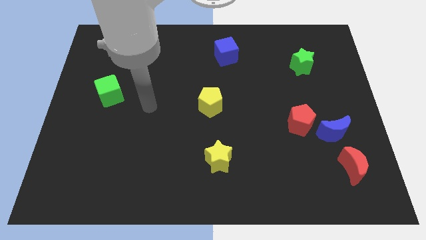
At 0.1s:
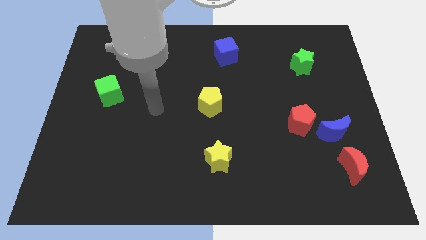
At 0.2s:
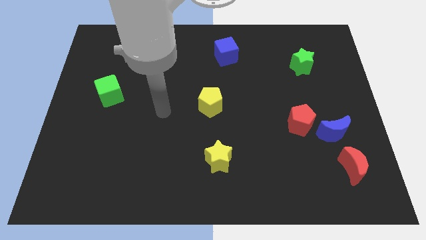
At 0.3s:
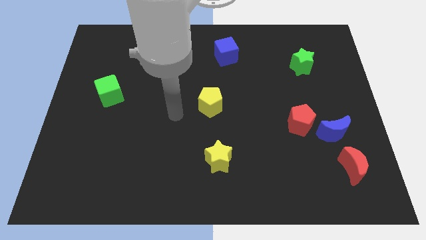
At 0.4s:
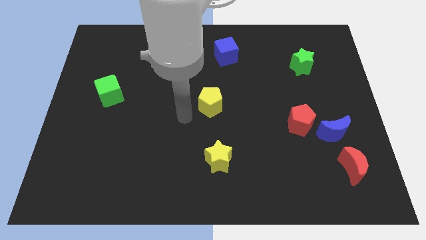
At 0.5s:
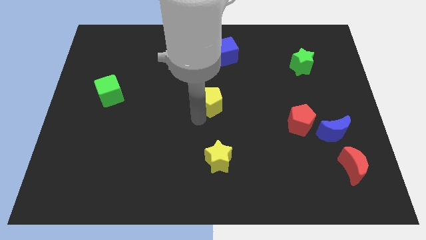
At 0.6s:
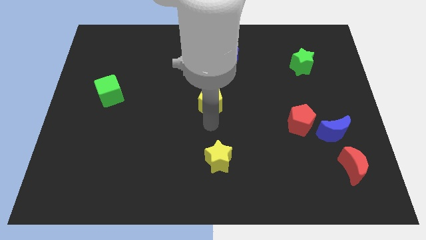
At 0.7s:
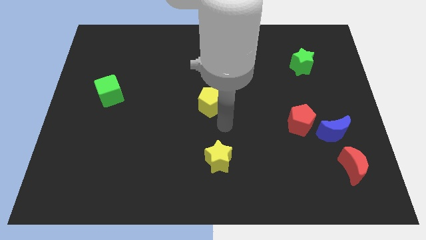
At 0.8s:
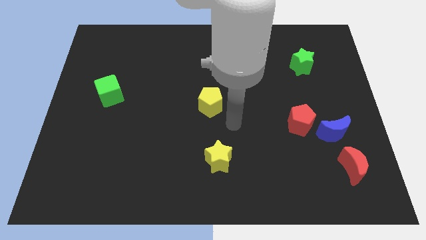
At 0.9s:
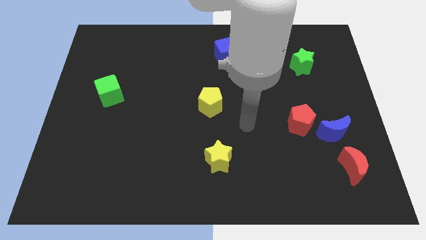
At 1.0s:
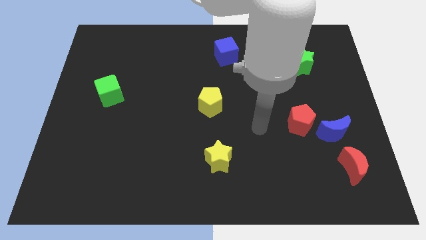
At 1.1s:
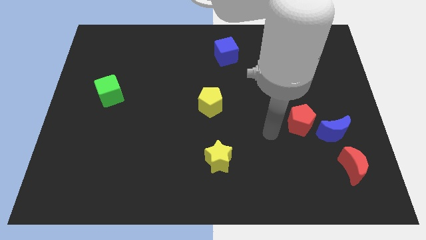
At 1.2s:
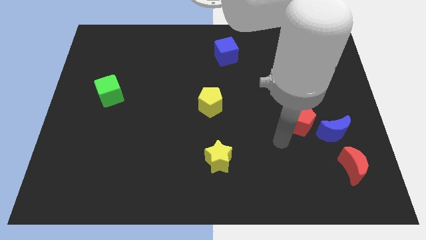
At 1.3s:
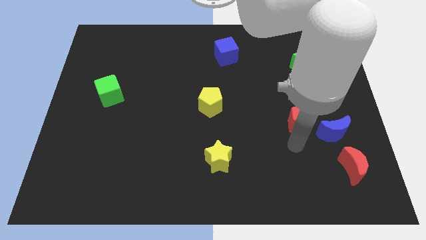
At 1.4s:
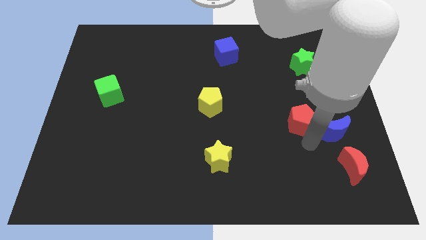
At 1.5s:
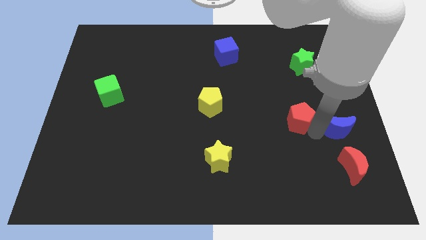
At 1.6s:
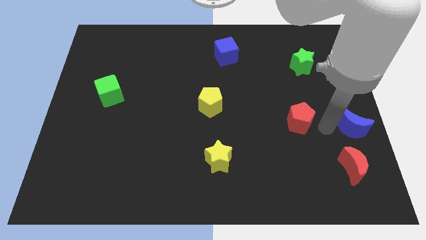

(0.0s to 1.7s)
separate the red pentagon from the blue moon

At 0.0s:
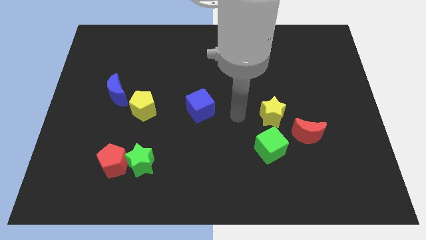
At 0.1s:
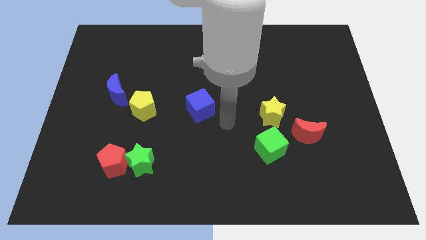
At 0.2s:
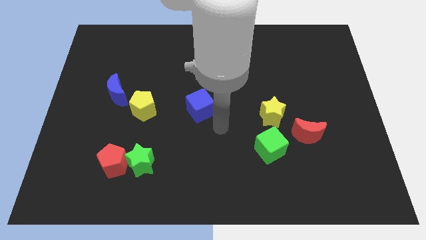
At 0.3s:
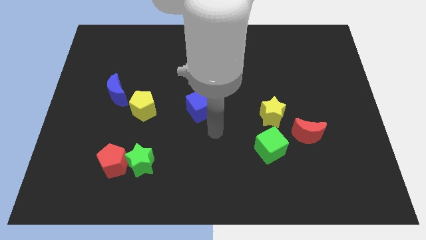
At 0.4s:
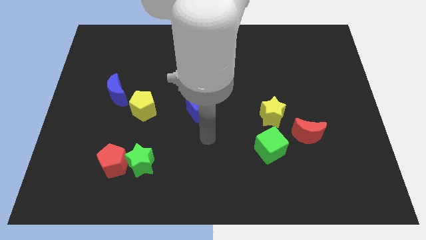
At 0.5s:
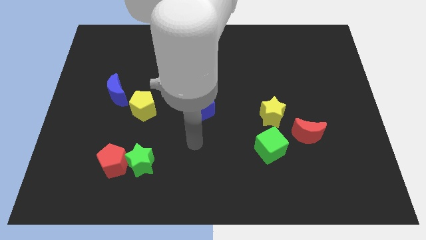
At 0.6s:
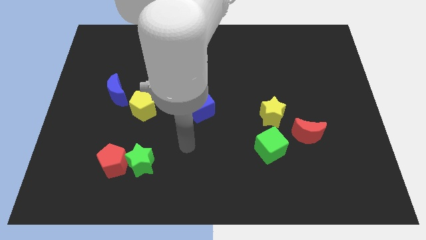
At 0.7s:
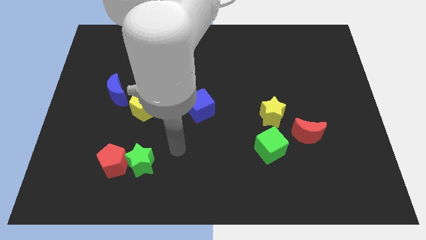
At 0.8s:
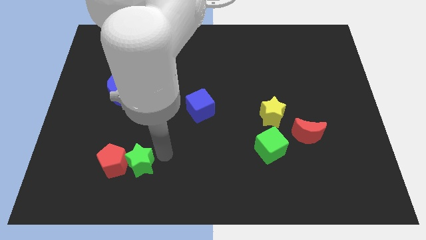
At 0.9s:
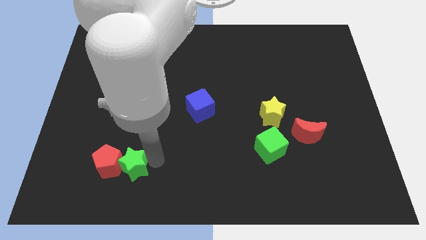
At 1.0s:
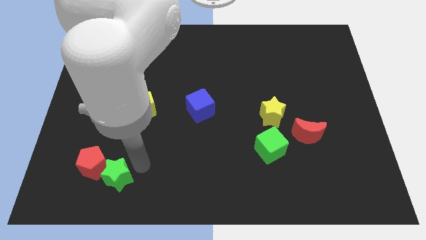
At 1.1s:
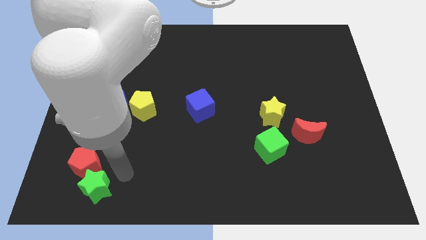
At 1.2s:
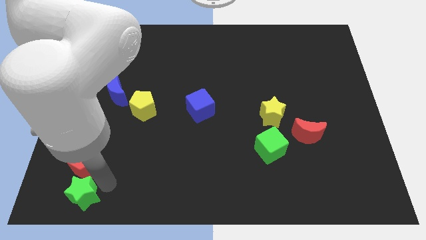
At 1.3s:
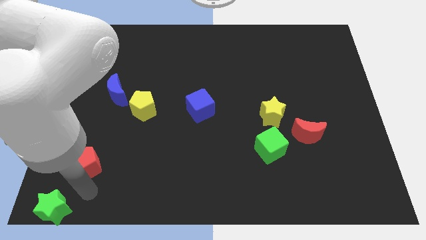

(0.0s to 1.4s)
separate the red pentagon from the green star

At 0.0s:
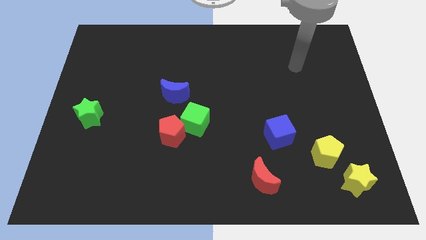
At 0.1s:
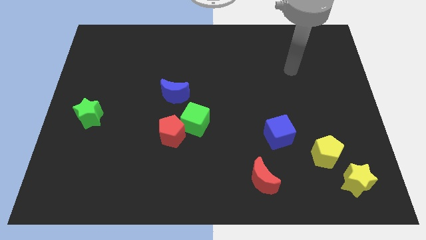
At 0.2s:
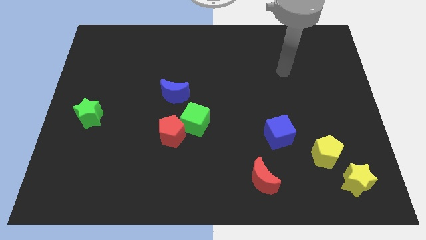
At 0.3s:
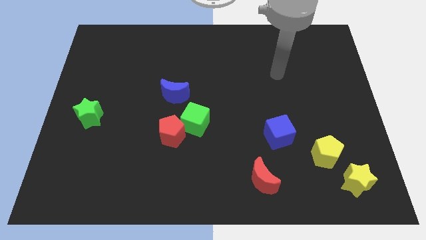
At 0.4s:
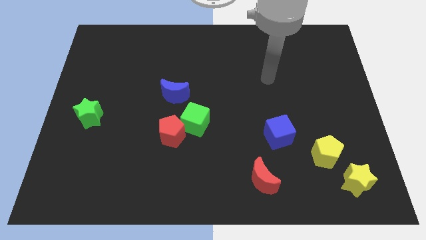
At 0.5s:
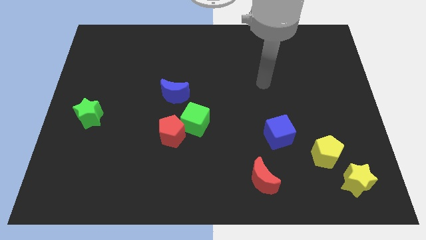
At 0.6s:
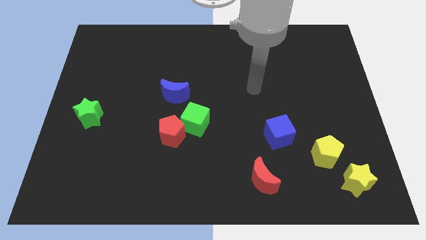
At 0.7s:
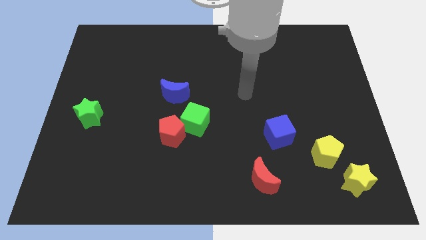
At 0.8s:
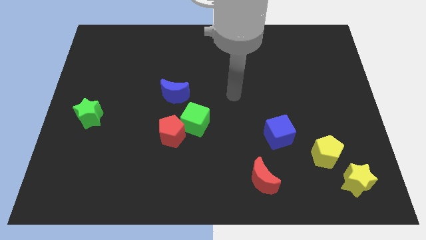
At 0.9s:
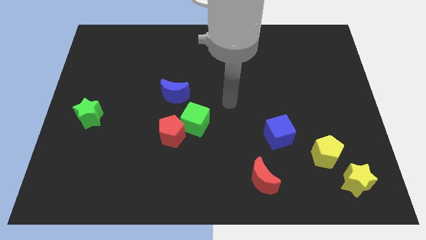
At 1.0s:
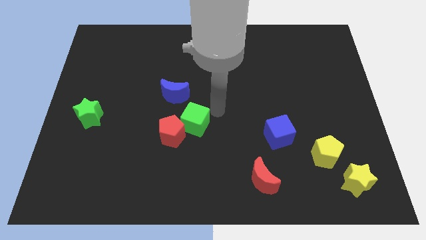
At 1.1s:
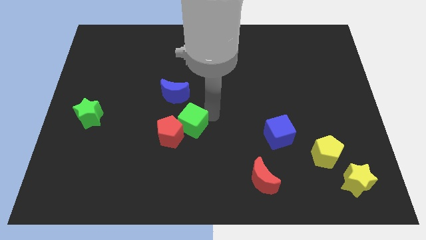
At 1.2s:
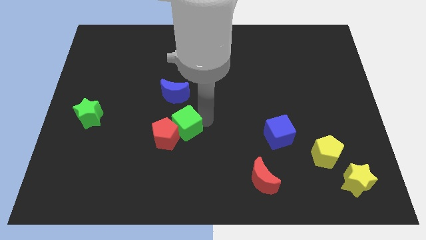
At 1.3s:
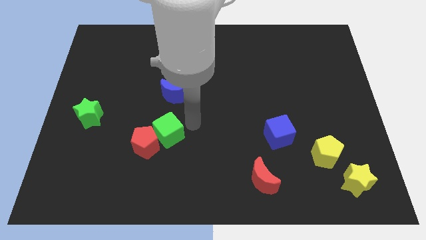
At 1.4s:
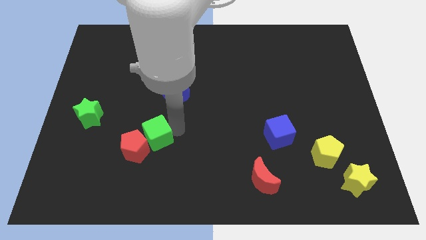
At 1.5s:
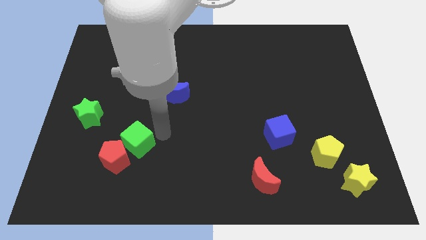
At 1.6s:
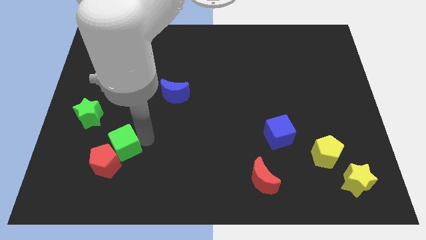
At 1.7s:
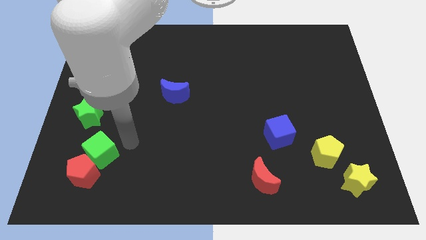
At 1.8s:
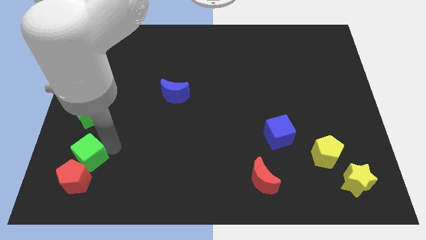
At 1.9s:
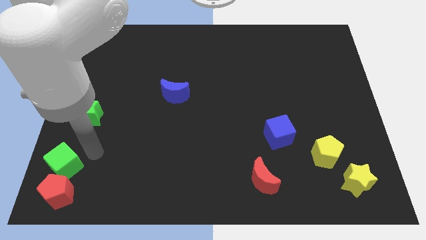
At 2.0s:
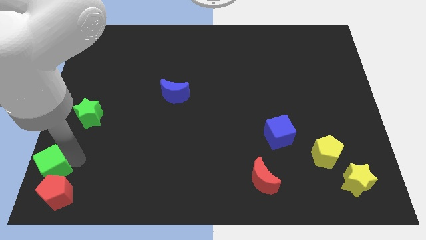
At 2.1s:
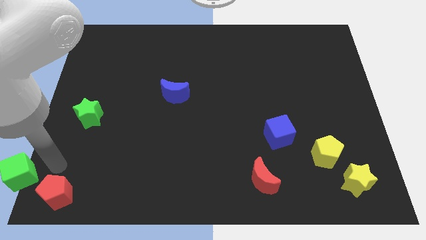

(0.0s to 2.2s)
pull the red pentagon apart from the green cube

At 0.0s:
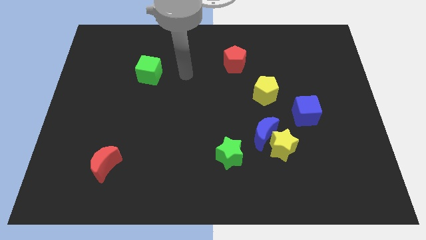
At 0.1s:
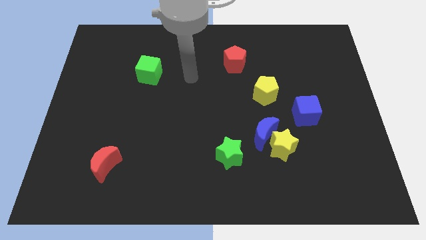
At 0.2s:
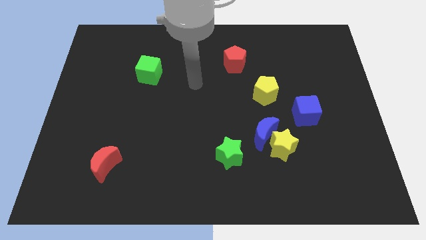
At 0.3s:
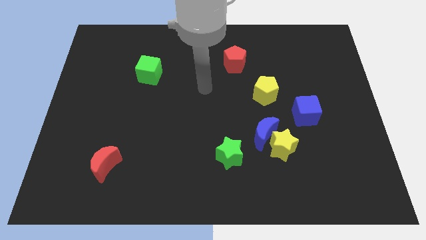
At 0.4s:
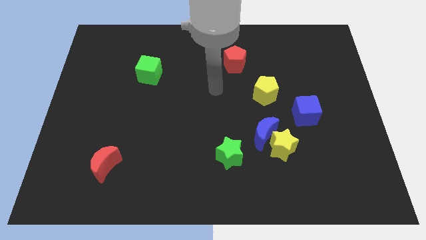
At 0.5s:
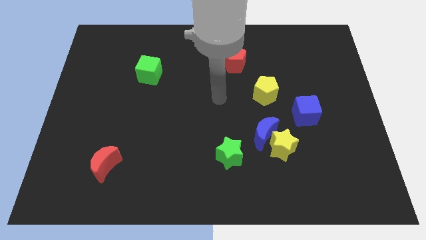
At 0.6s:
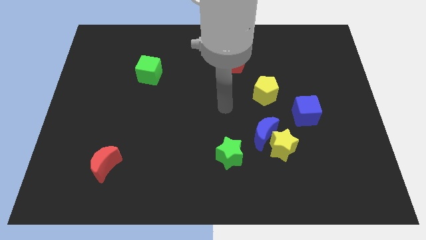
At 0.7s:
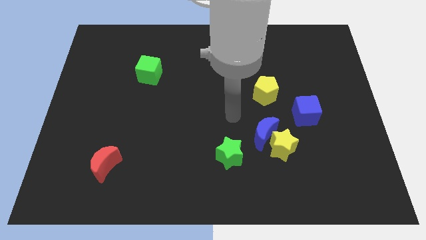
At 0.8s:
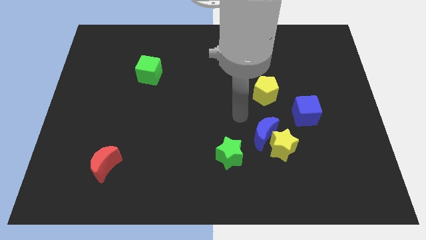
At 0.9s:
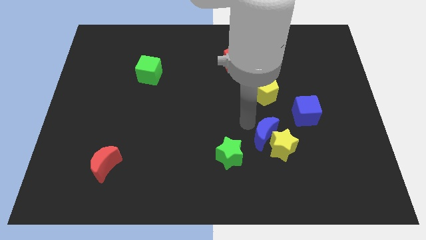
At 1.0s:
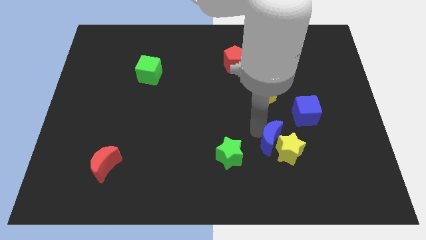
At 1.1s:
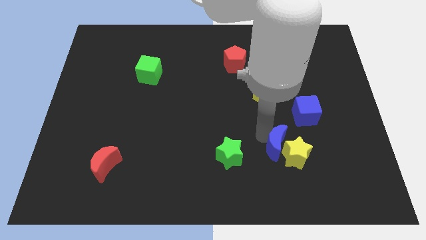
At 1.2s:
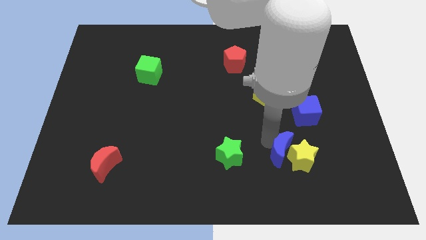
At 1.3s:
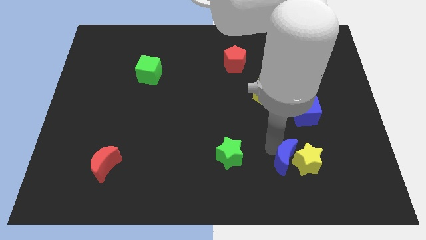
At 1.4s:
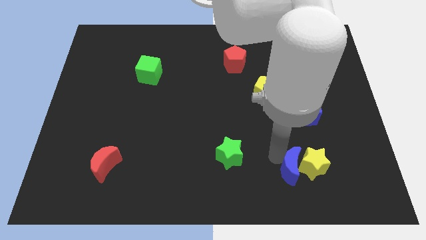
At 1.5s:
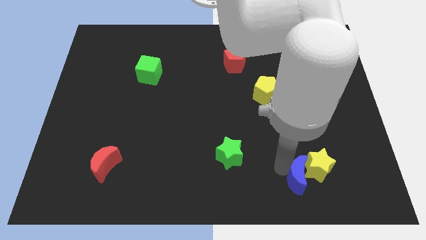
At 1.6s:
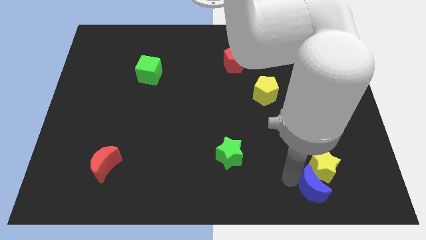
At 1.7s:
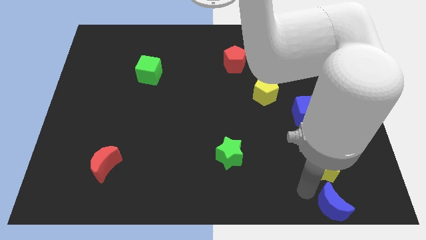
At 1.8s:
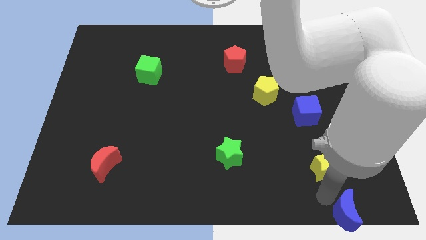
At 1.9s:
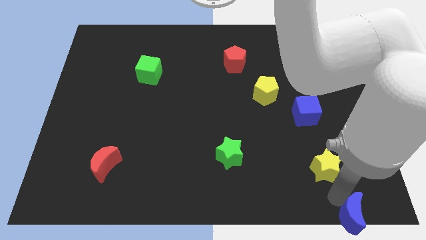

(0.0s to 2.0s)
pull the yellow star apart from the blue moon

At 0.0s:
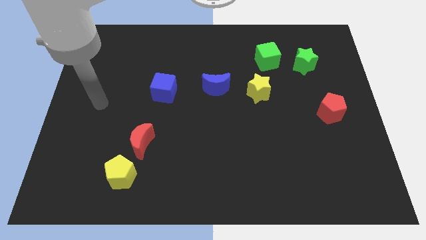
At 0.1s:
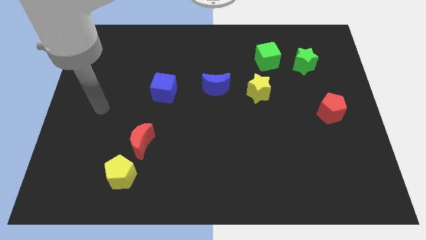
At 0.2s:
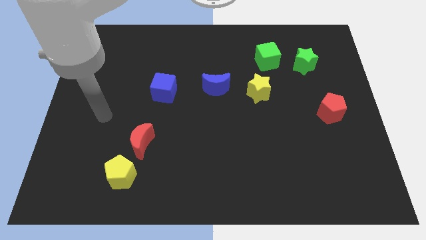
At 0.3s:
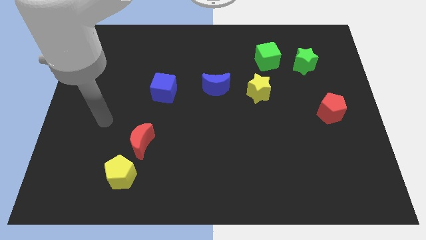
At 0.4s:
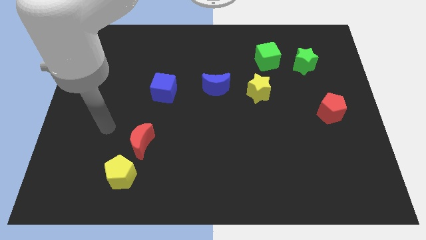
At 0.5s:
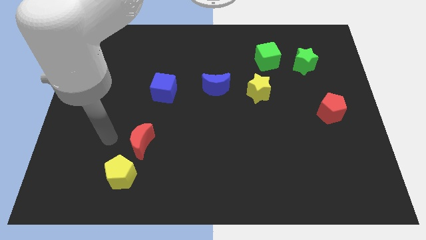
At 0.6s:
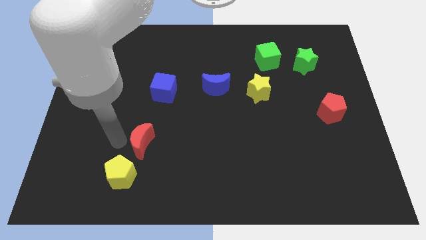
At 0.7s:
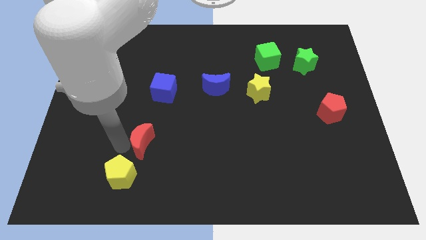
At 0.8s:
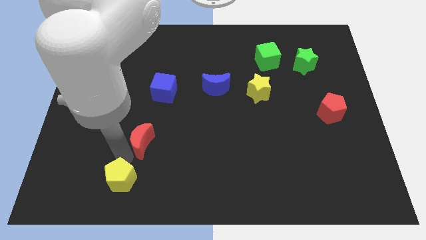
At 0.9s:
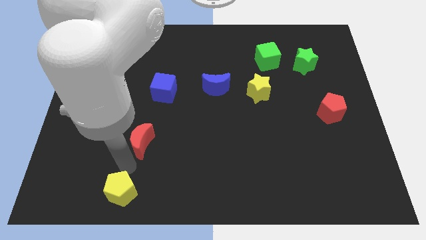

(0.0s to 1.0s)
pull the red moon apart from the yellow pentagon

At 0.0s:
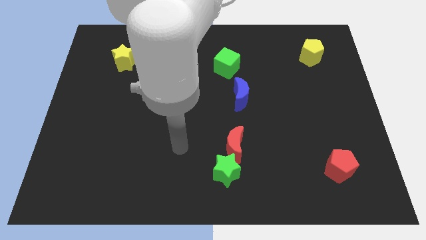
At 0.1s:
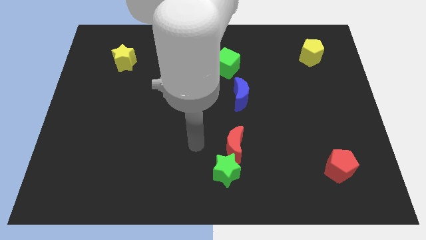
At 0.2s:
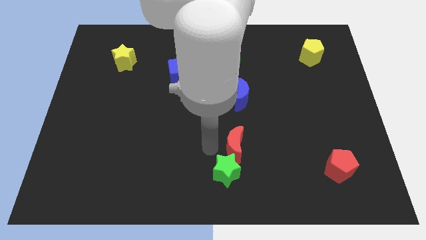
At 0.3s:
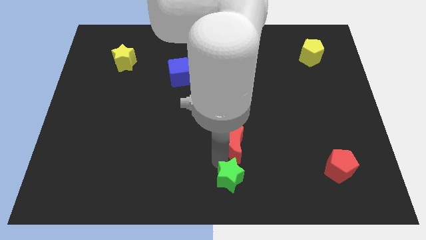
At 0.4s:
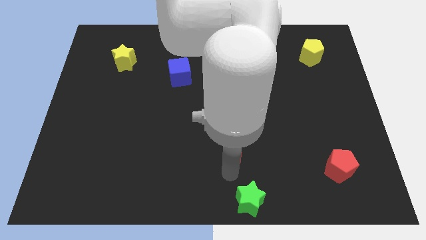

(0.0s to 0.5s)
move the red moon away from the green star

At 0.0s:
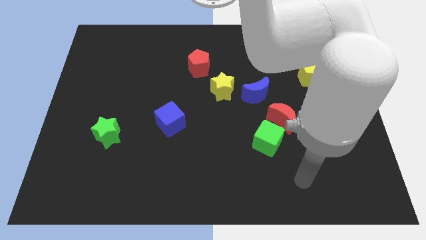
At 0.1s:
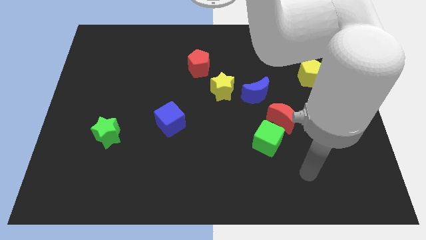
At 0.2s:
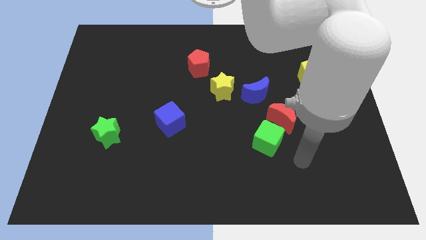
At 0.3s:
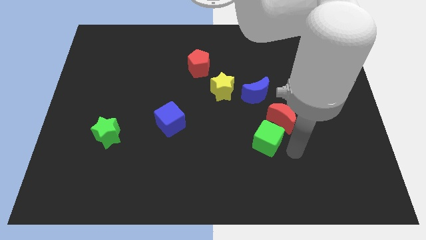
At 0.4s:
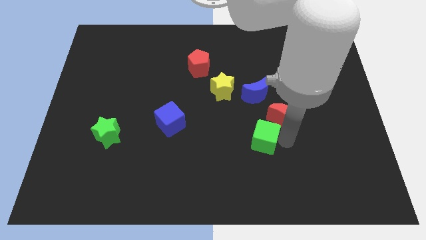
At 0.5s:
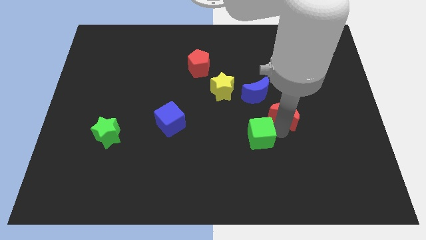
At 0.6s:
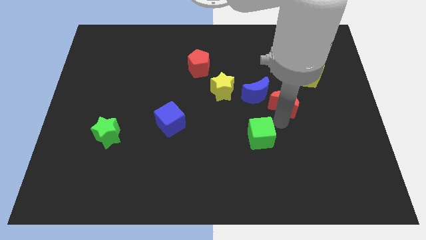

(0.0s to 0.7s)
separate the green cube from the red moon
